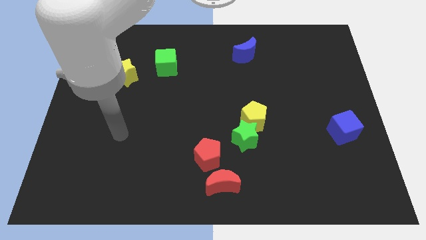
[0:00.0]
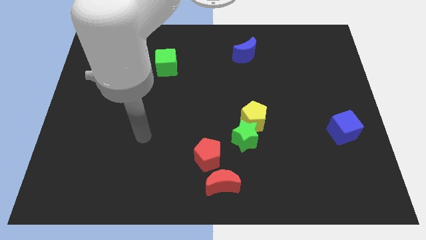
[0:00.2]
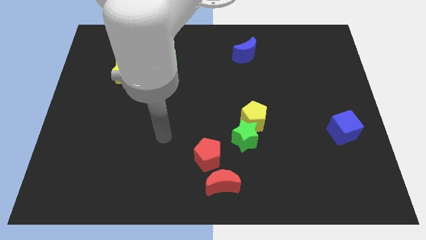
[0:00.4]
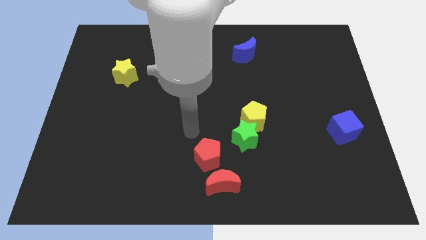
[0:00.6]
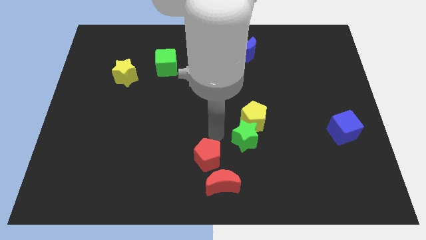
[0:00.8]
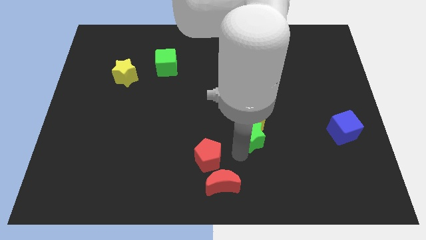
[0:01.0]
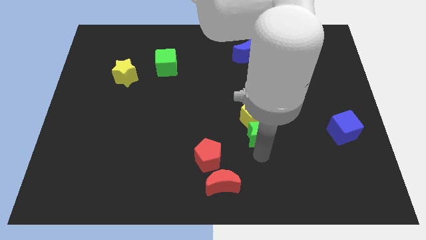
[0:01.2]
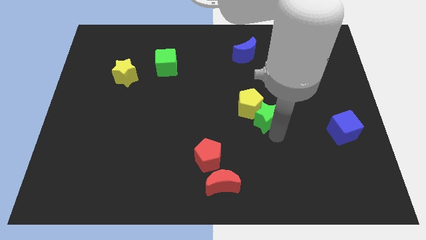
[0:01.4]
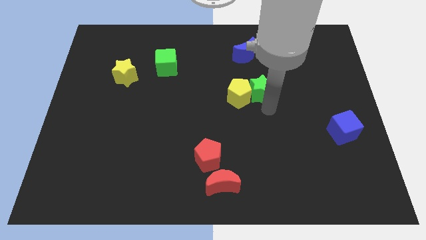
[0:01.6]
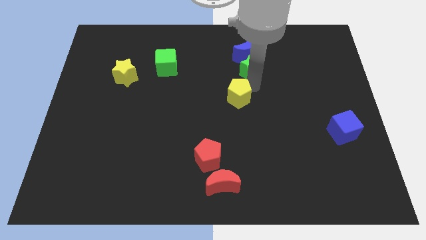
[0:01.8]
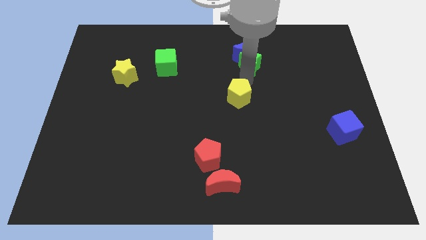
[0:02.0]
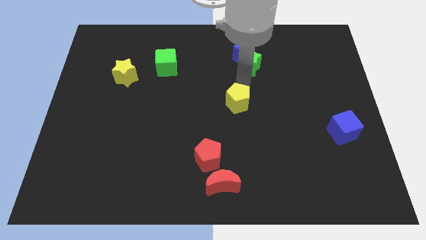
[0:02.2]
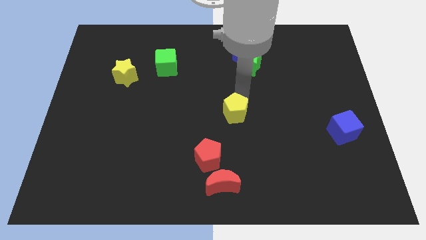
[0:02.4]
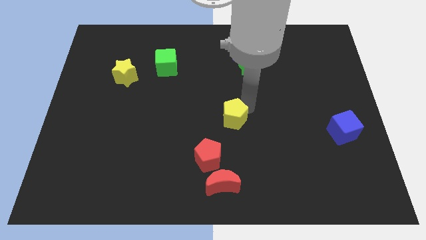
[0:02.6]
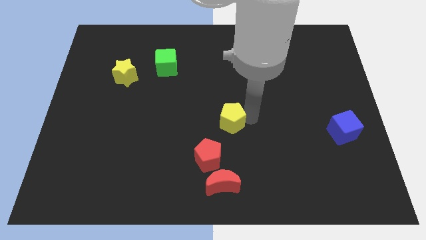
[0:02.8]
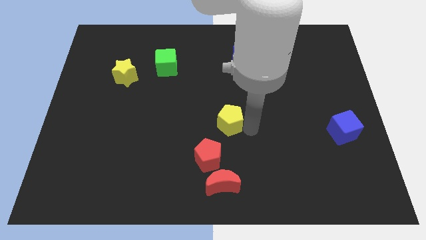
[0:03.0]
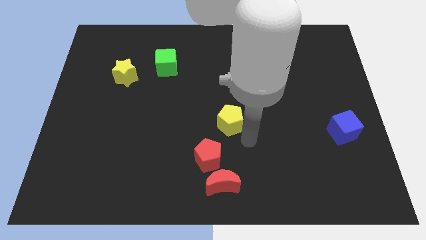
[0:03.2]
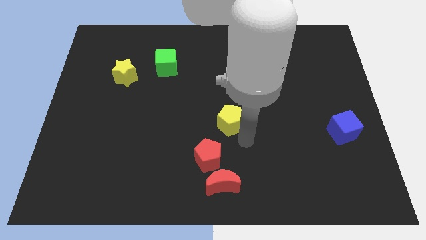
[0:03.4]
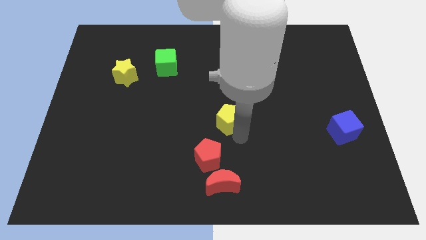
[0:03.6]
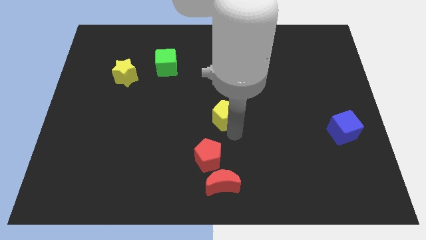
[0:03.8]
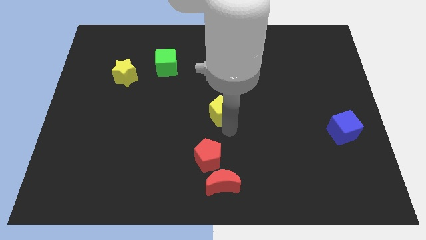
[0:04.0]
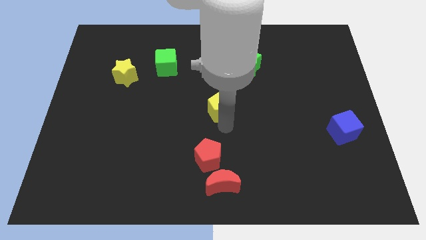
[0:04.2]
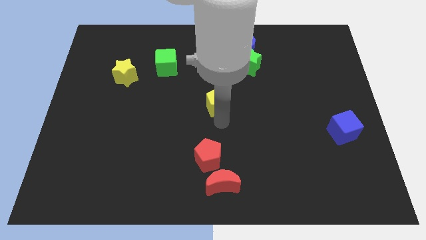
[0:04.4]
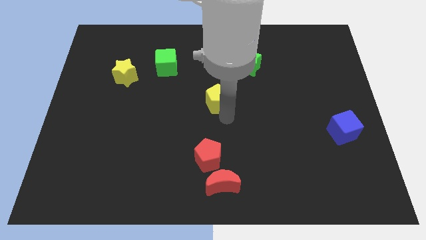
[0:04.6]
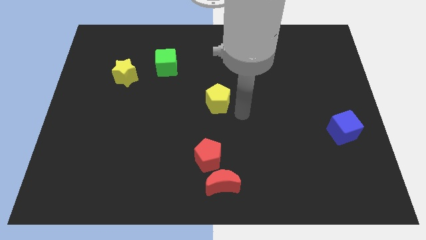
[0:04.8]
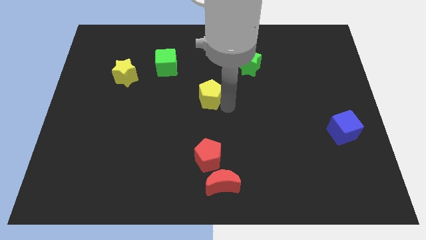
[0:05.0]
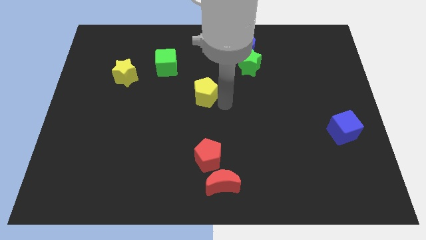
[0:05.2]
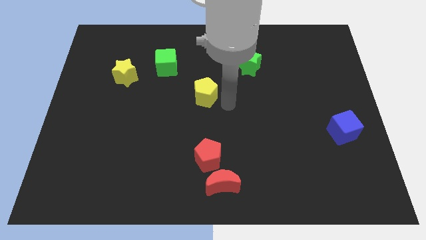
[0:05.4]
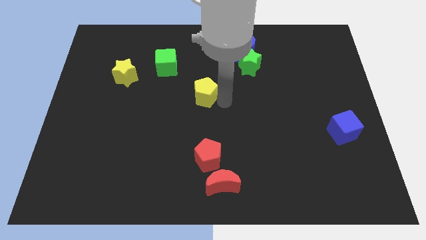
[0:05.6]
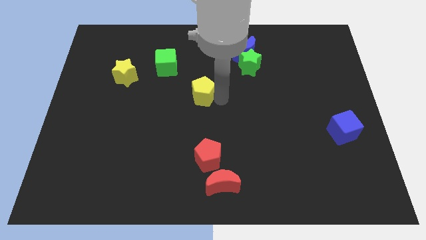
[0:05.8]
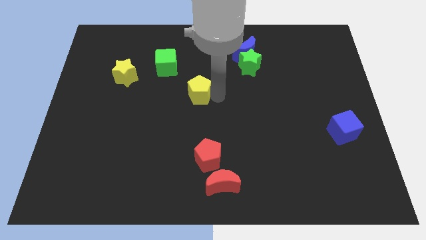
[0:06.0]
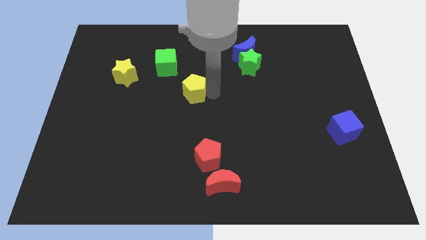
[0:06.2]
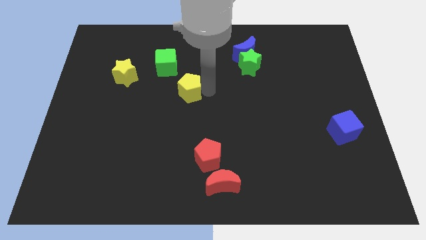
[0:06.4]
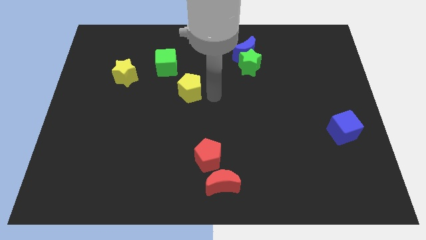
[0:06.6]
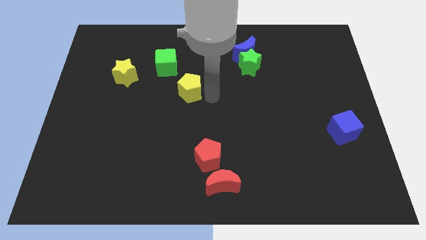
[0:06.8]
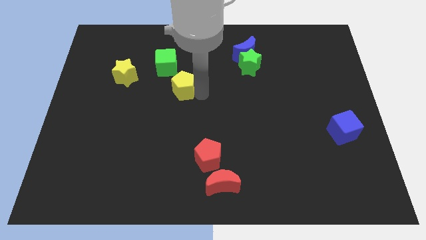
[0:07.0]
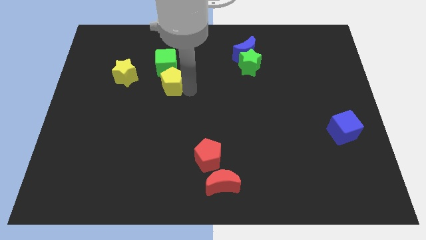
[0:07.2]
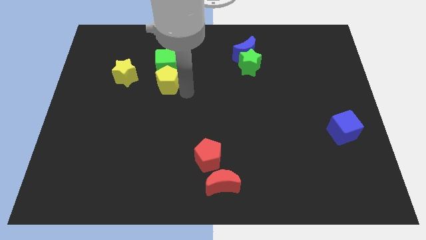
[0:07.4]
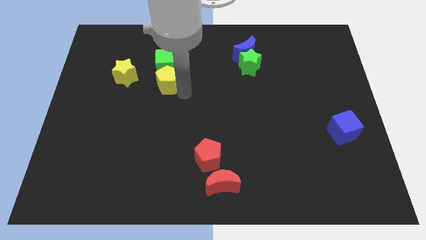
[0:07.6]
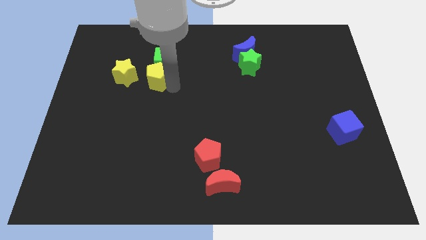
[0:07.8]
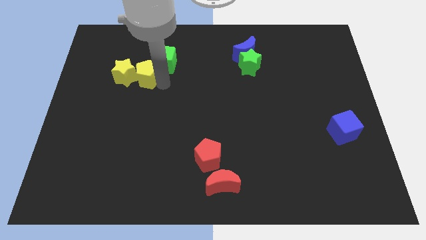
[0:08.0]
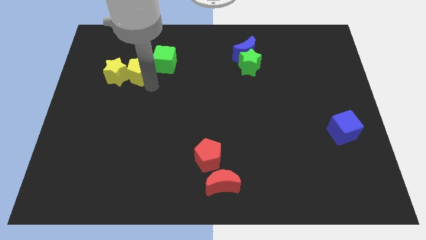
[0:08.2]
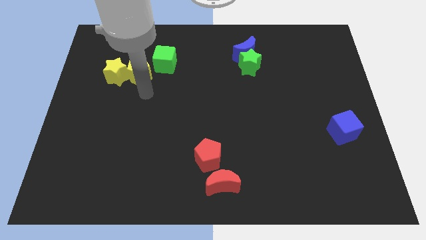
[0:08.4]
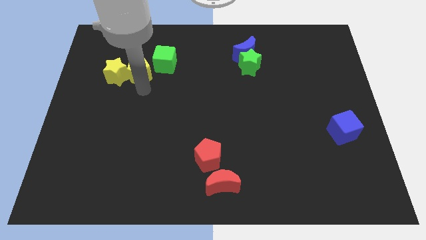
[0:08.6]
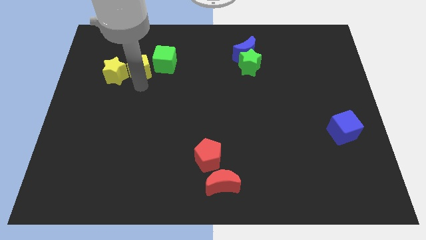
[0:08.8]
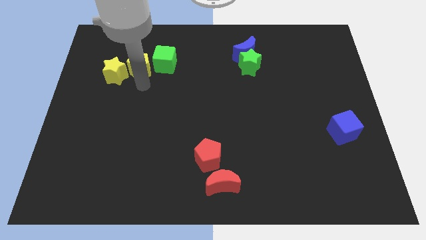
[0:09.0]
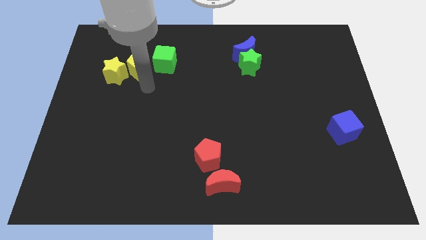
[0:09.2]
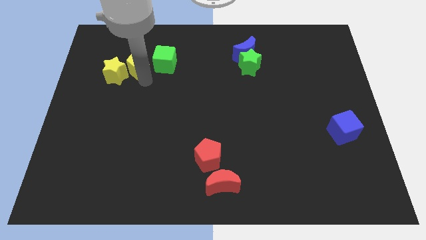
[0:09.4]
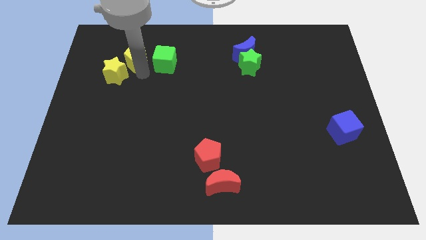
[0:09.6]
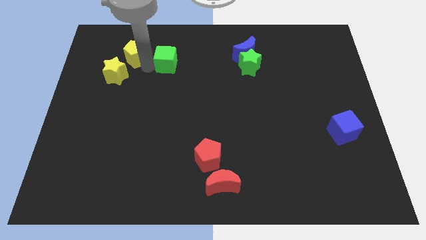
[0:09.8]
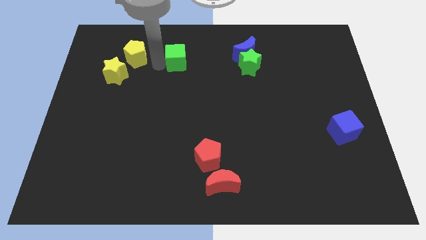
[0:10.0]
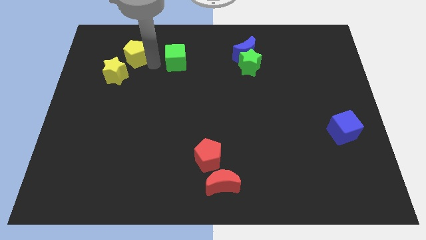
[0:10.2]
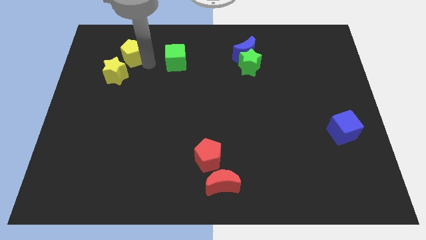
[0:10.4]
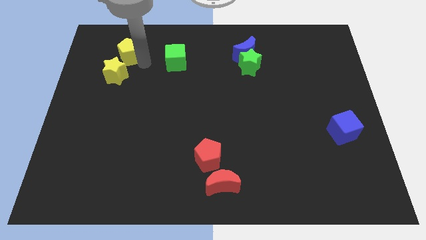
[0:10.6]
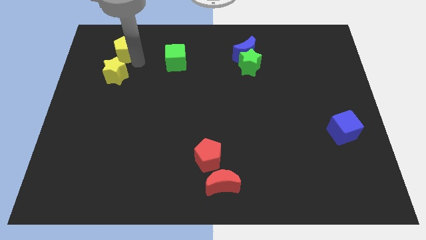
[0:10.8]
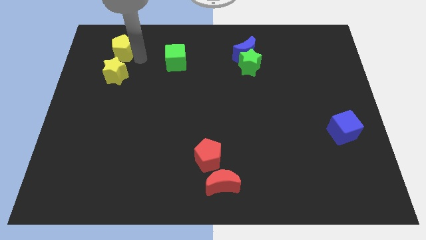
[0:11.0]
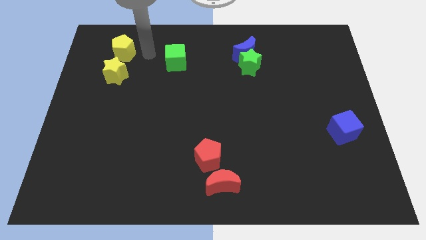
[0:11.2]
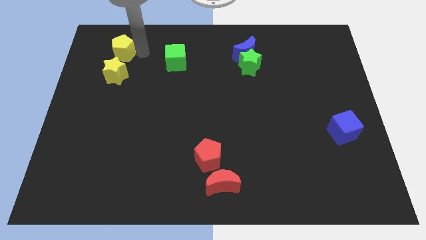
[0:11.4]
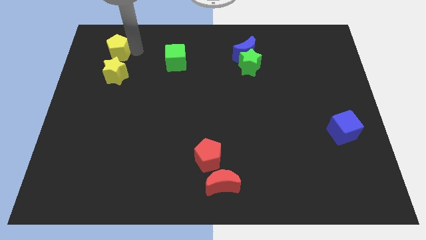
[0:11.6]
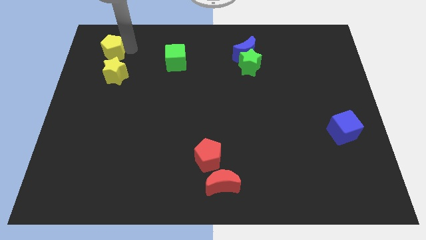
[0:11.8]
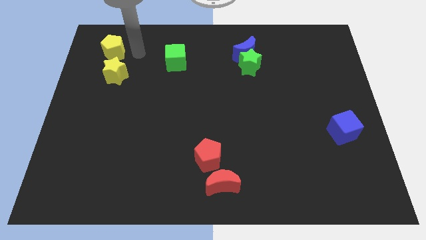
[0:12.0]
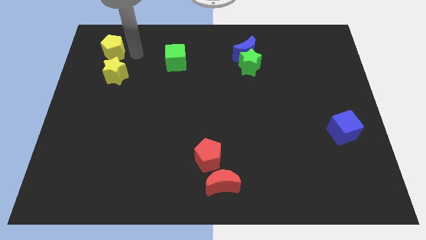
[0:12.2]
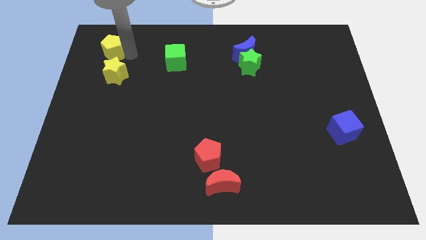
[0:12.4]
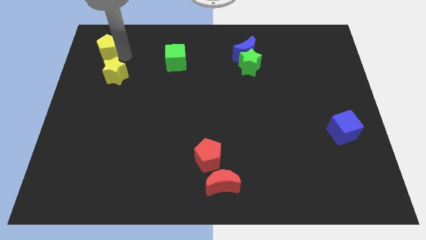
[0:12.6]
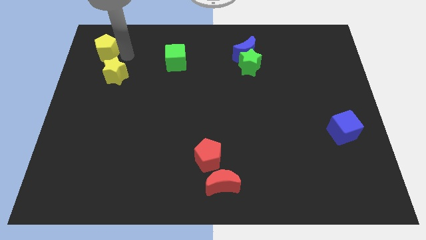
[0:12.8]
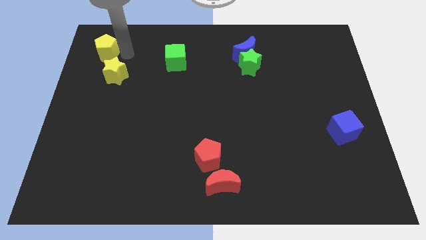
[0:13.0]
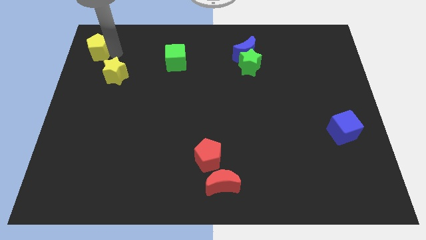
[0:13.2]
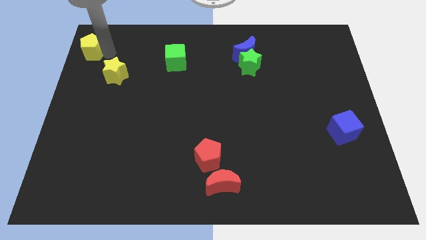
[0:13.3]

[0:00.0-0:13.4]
put the yellow pentagon to the upper left corner
